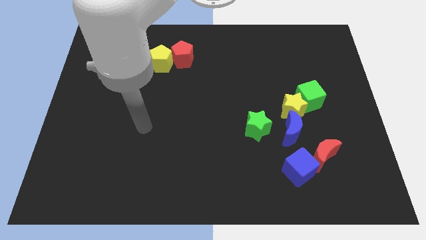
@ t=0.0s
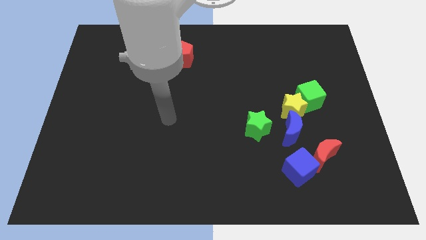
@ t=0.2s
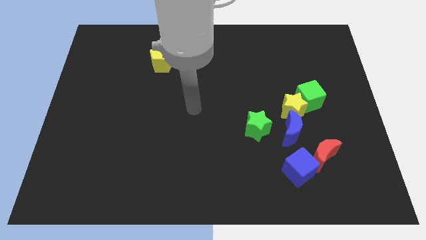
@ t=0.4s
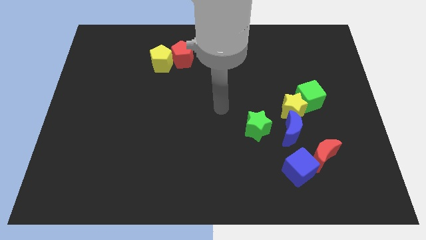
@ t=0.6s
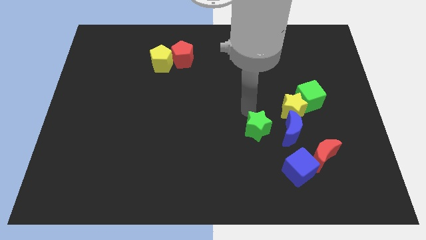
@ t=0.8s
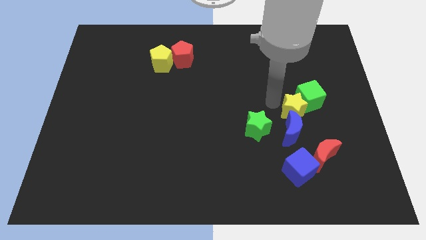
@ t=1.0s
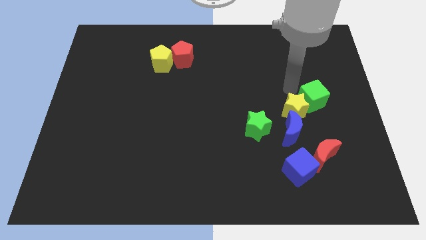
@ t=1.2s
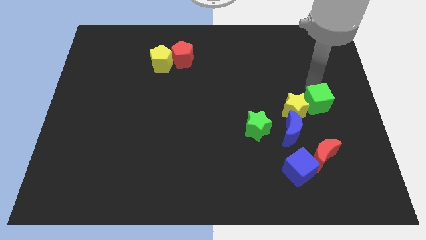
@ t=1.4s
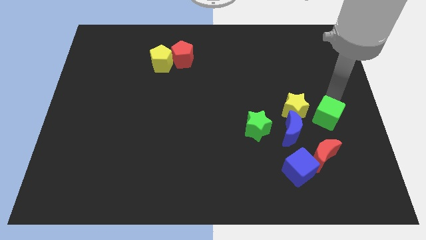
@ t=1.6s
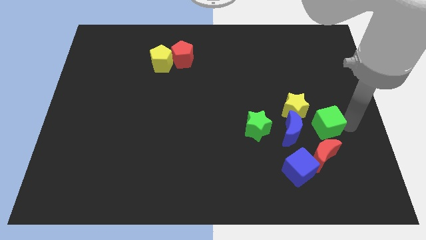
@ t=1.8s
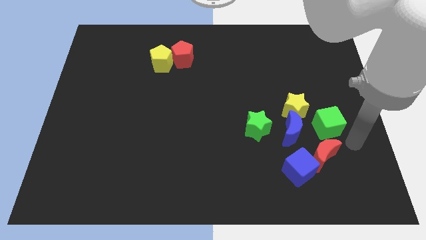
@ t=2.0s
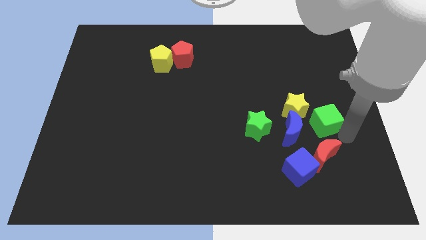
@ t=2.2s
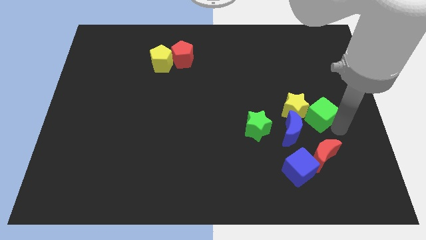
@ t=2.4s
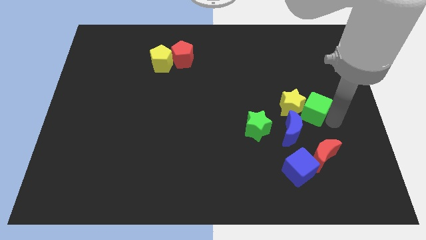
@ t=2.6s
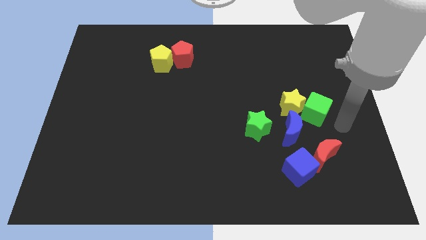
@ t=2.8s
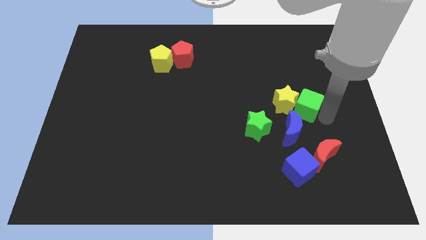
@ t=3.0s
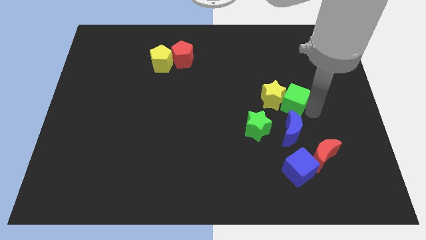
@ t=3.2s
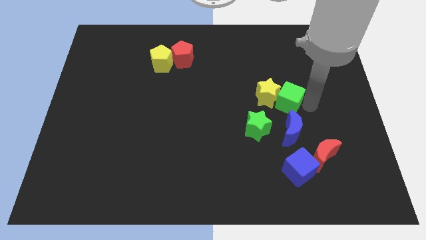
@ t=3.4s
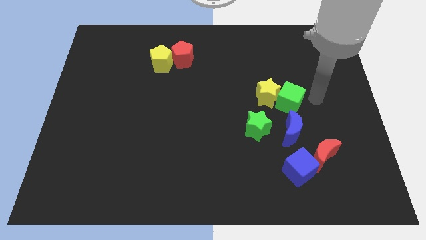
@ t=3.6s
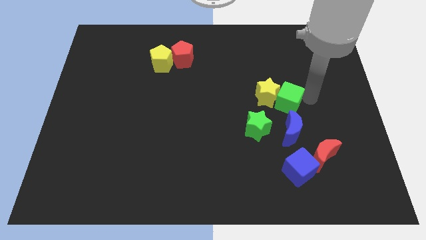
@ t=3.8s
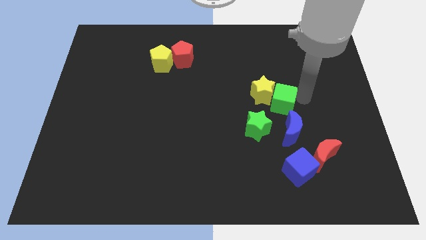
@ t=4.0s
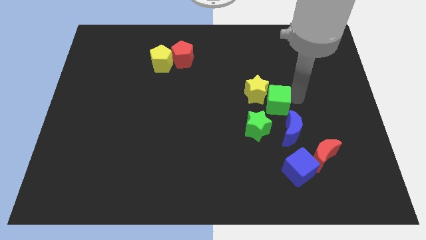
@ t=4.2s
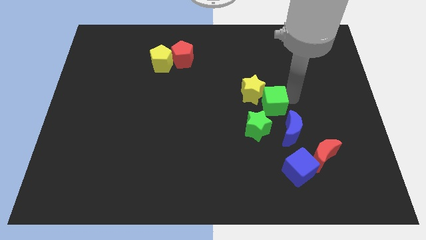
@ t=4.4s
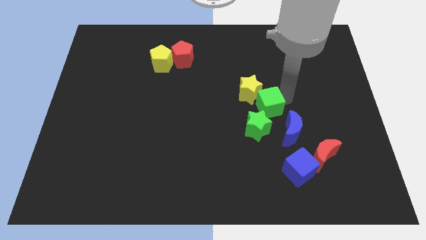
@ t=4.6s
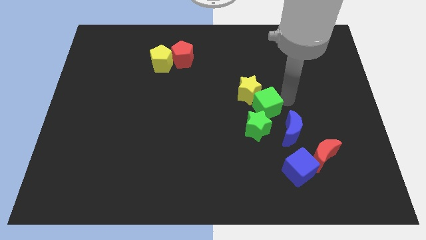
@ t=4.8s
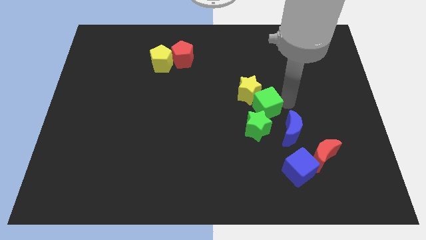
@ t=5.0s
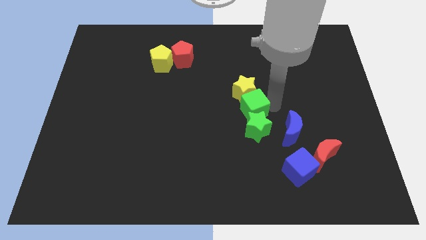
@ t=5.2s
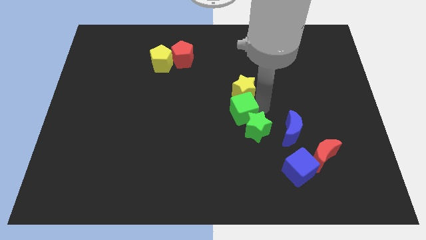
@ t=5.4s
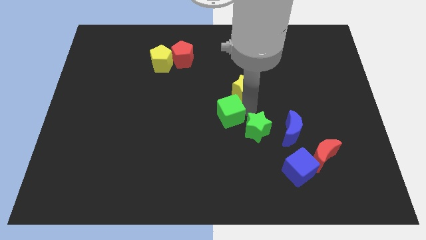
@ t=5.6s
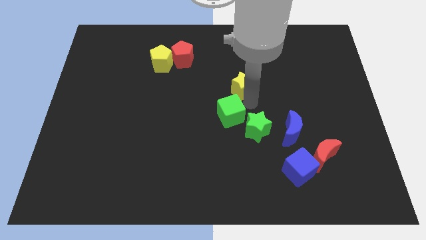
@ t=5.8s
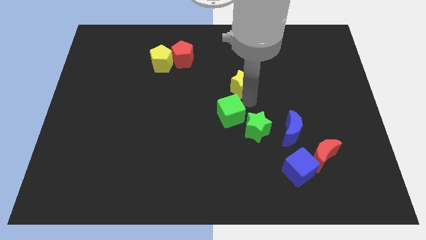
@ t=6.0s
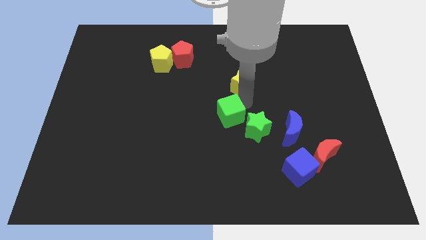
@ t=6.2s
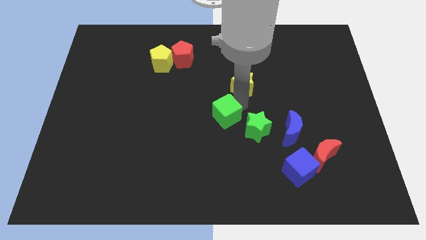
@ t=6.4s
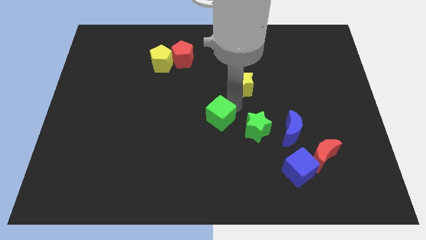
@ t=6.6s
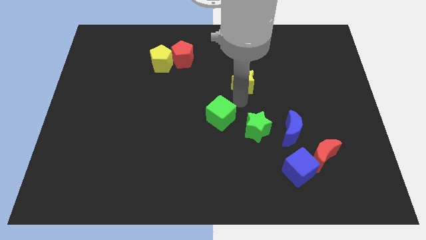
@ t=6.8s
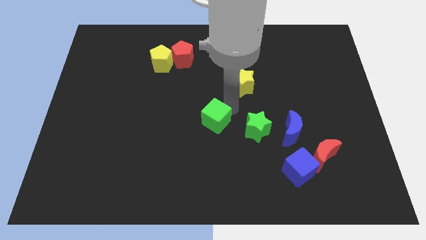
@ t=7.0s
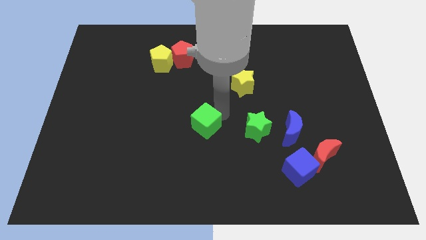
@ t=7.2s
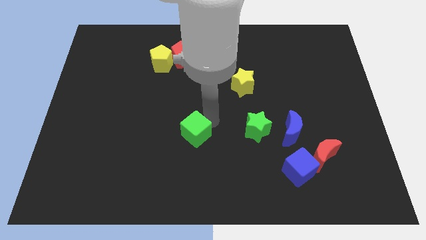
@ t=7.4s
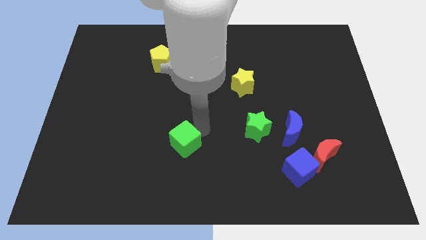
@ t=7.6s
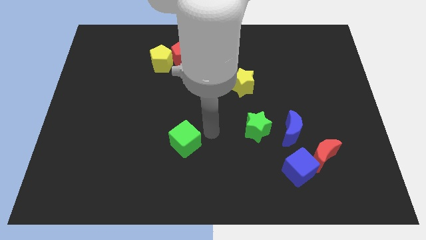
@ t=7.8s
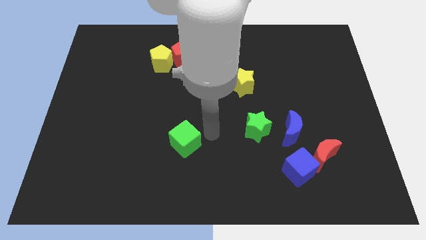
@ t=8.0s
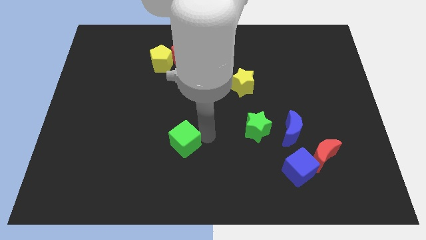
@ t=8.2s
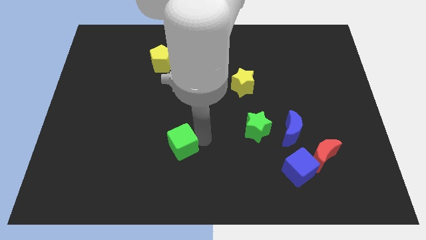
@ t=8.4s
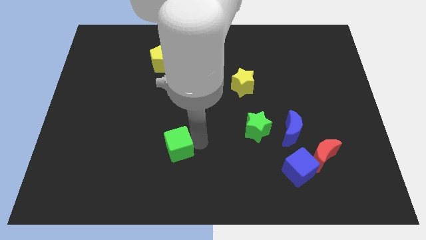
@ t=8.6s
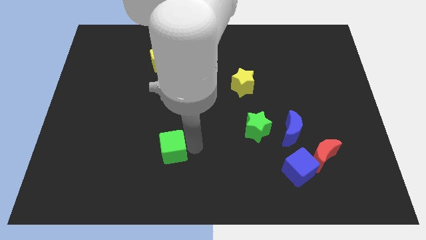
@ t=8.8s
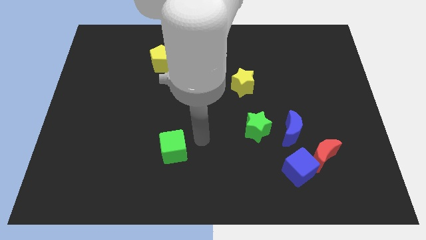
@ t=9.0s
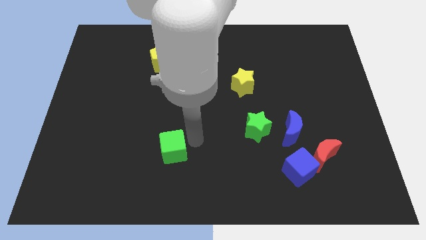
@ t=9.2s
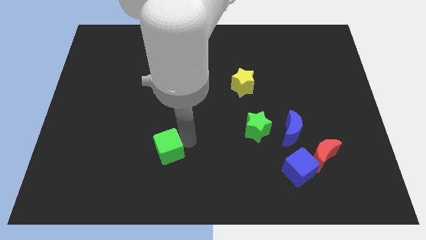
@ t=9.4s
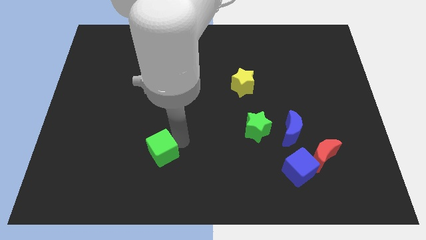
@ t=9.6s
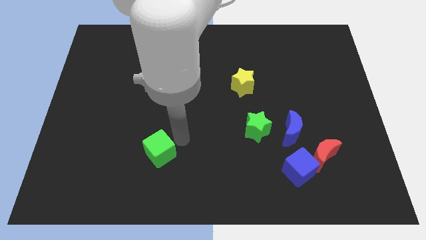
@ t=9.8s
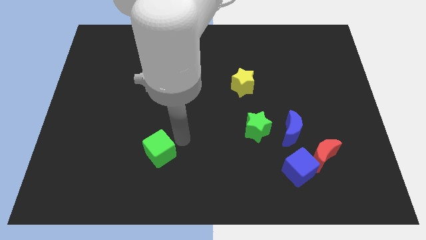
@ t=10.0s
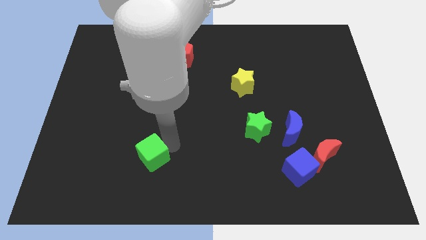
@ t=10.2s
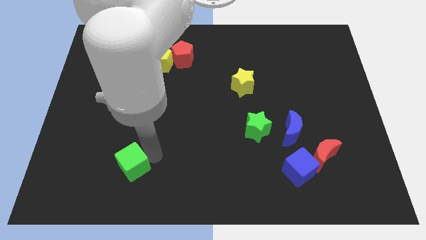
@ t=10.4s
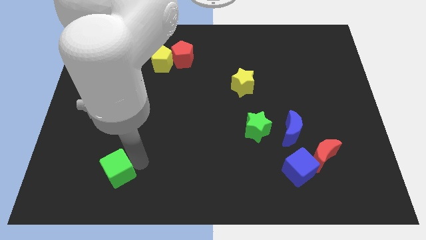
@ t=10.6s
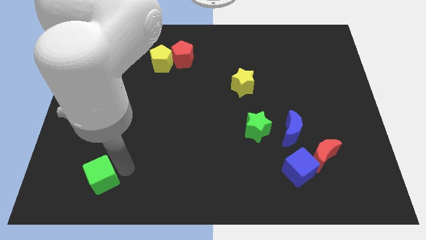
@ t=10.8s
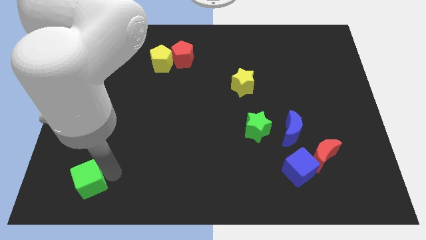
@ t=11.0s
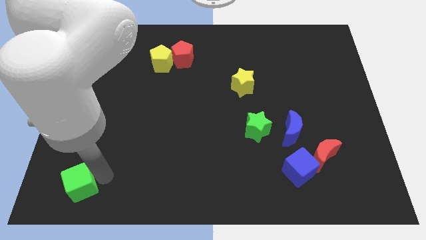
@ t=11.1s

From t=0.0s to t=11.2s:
push the green cube to the bottom left

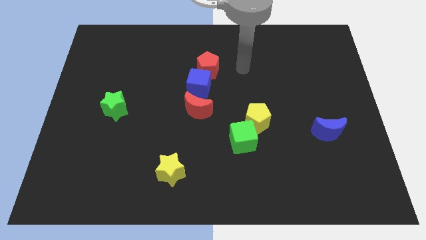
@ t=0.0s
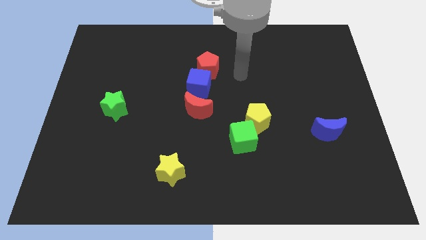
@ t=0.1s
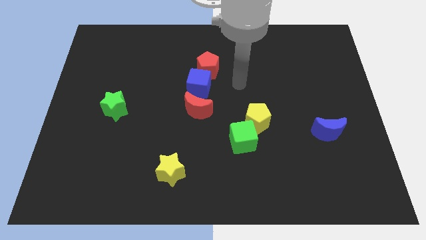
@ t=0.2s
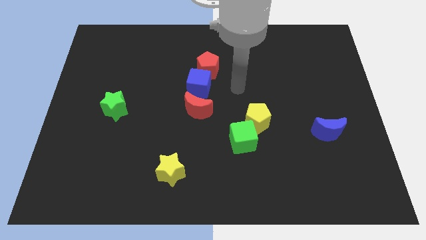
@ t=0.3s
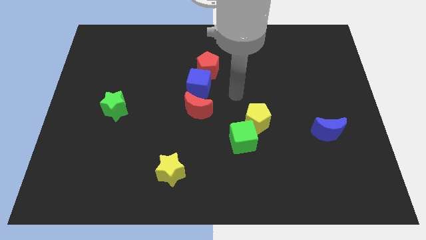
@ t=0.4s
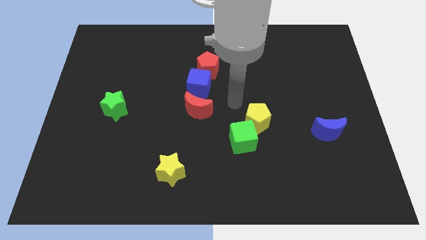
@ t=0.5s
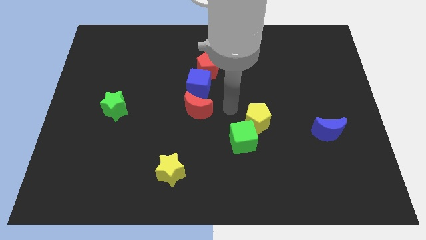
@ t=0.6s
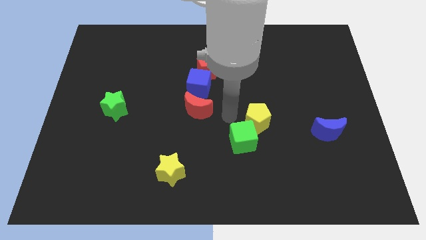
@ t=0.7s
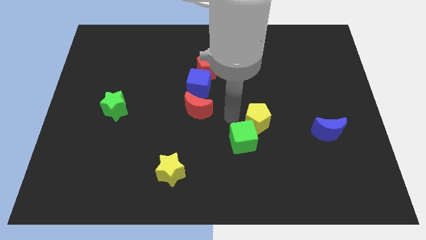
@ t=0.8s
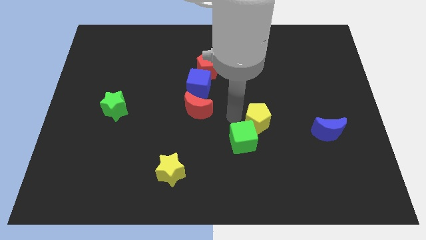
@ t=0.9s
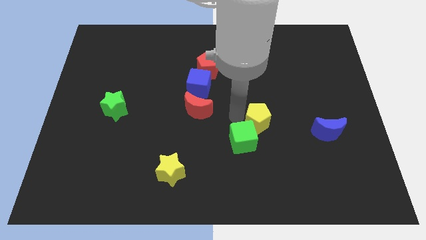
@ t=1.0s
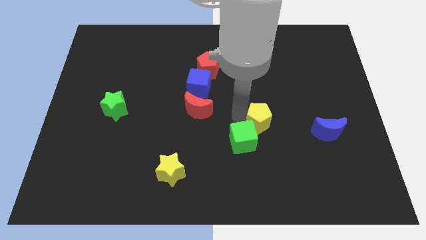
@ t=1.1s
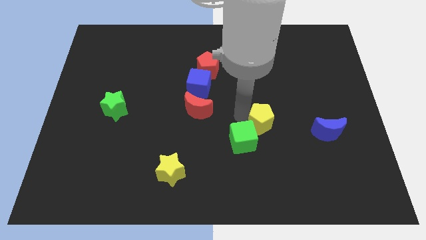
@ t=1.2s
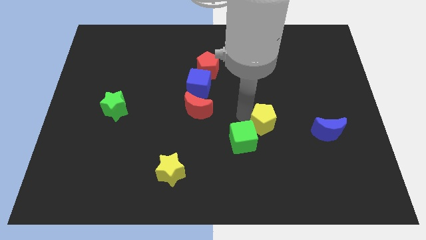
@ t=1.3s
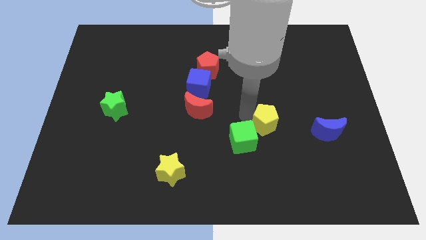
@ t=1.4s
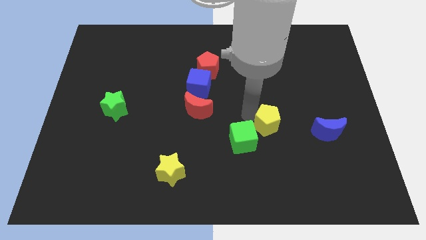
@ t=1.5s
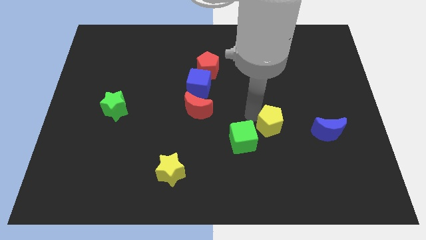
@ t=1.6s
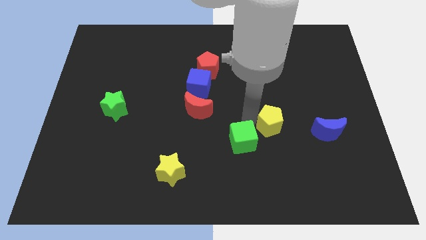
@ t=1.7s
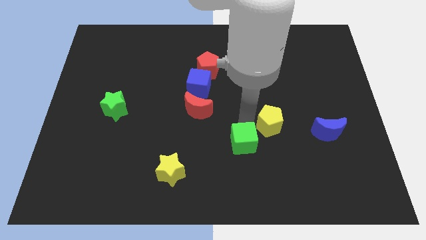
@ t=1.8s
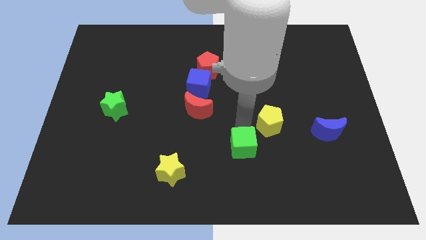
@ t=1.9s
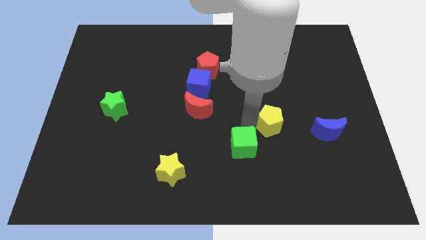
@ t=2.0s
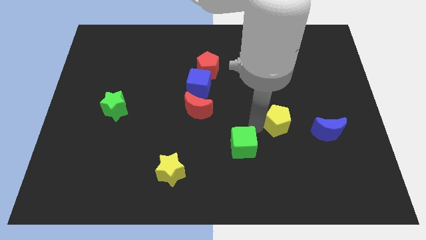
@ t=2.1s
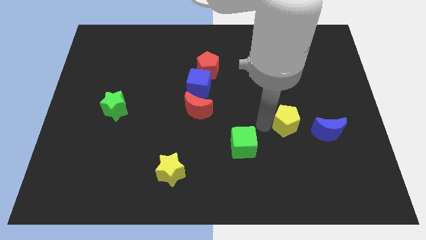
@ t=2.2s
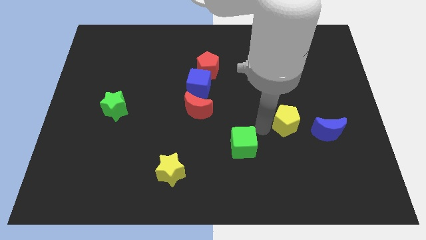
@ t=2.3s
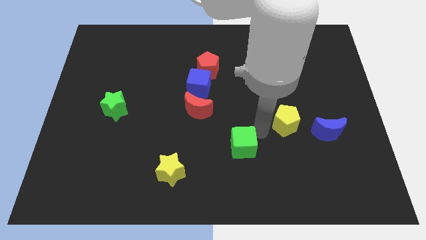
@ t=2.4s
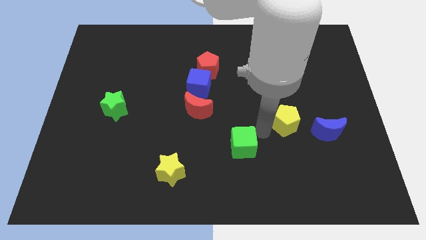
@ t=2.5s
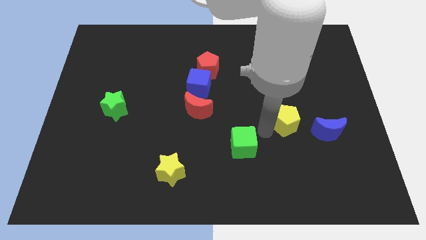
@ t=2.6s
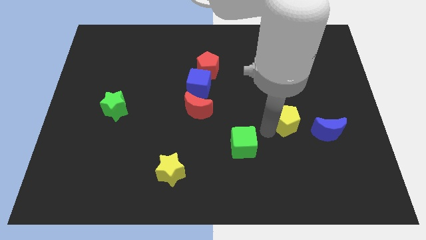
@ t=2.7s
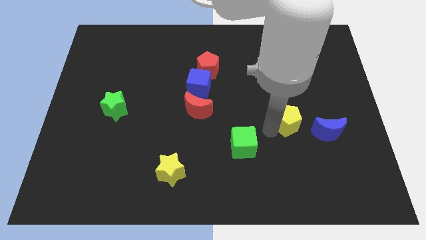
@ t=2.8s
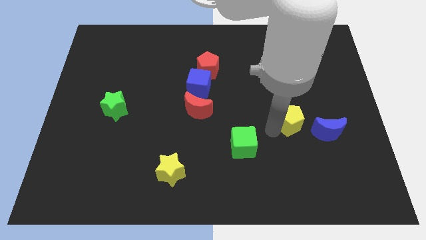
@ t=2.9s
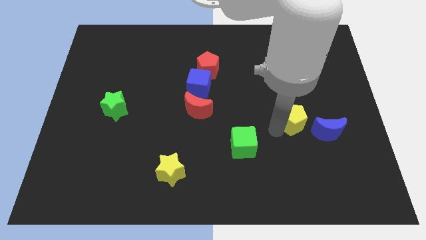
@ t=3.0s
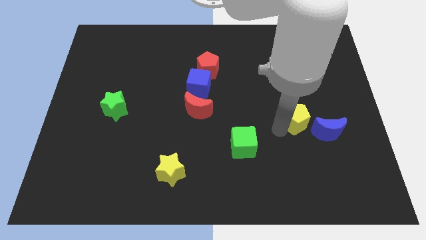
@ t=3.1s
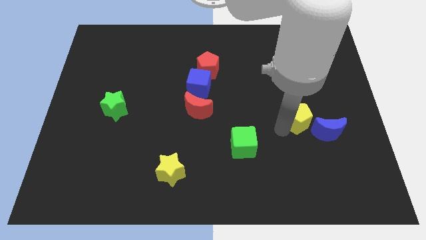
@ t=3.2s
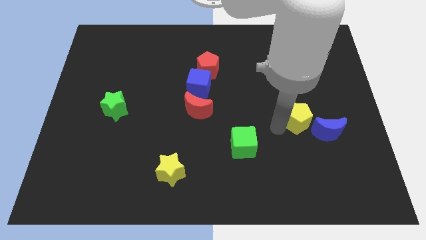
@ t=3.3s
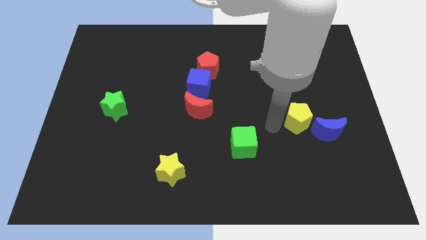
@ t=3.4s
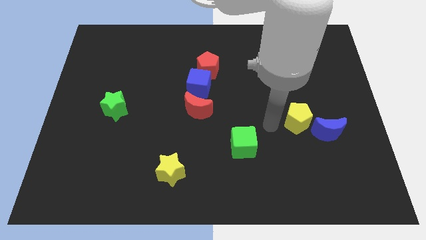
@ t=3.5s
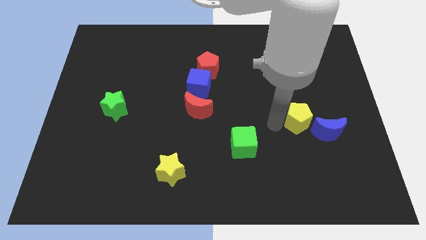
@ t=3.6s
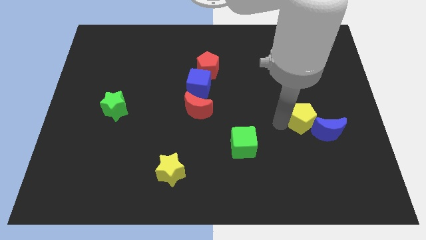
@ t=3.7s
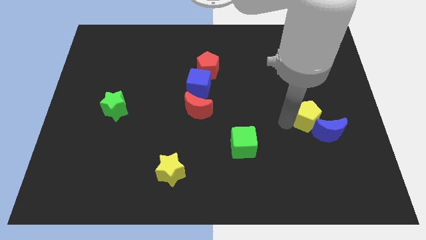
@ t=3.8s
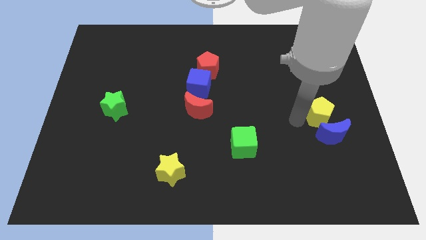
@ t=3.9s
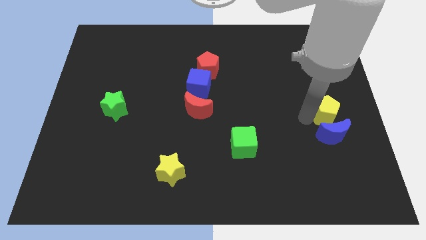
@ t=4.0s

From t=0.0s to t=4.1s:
slide the yellow pentagon to the right side of the board
